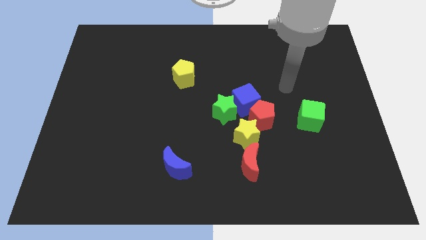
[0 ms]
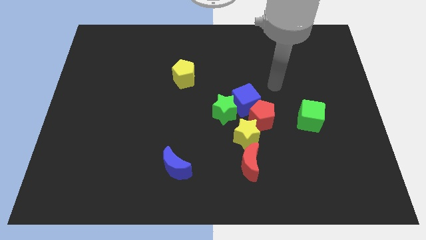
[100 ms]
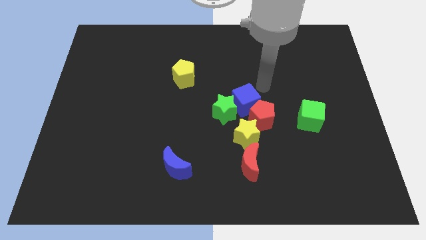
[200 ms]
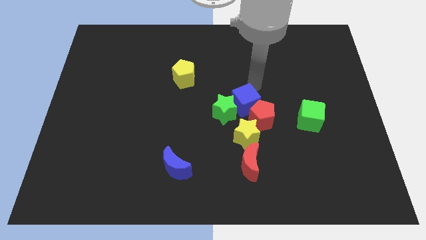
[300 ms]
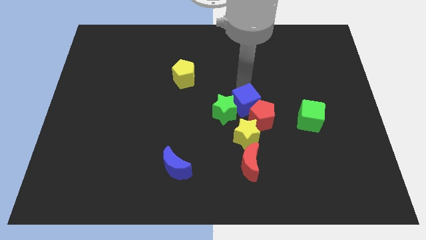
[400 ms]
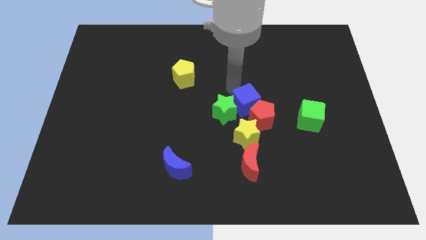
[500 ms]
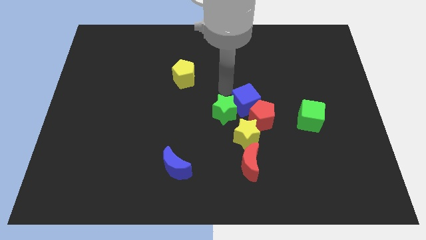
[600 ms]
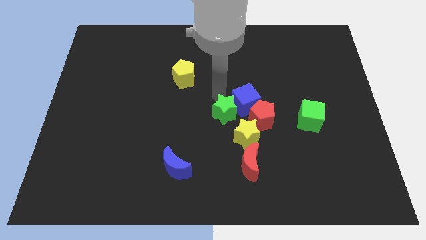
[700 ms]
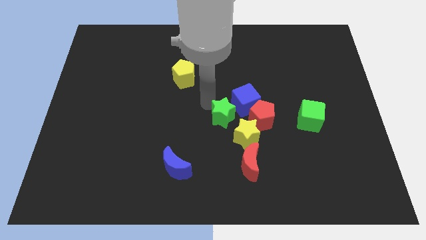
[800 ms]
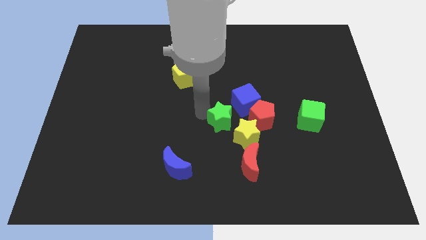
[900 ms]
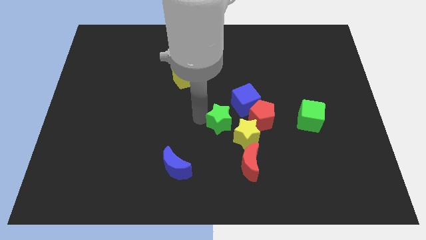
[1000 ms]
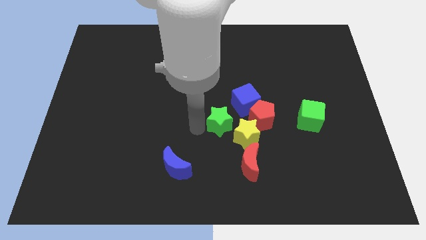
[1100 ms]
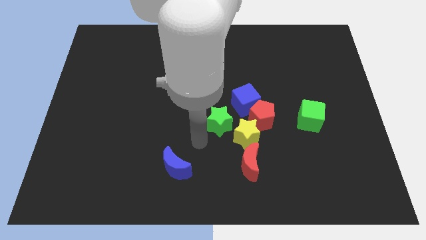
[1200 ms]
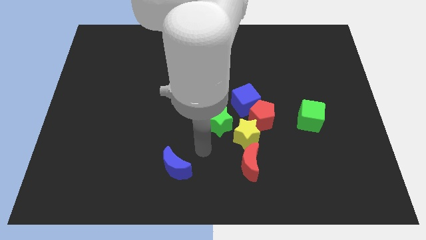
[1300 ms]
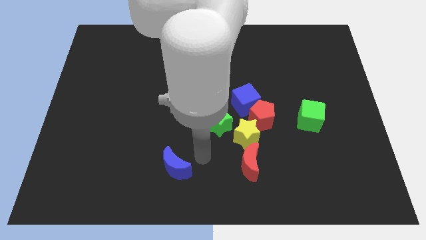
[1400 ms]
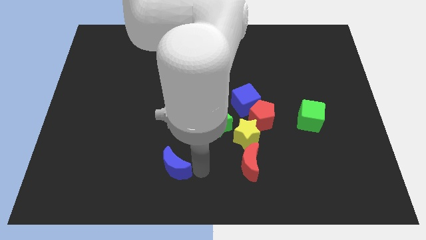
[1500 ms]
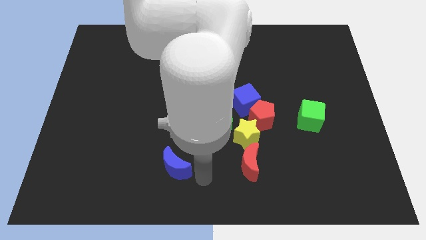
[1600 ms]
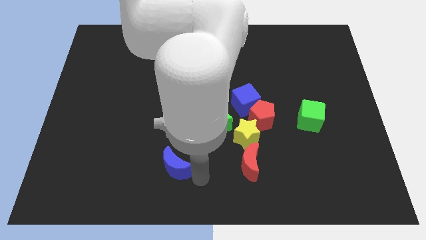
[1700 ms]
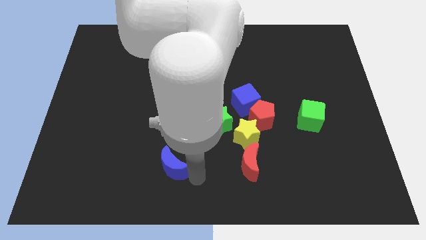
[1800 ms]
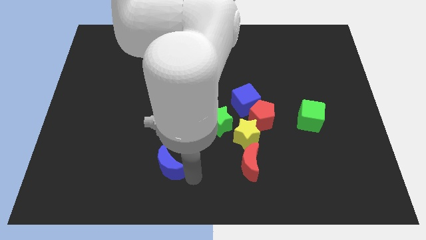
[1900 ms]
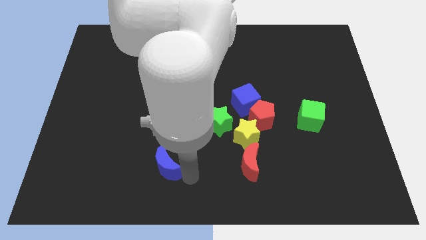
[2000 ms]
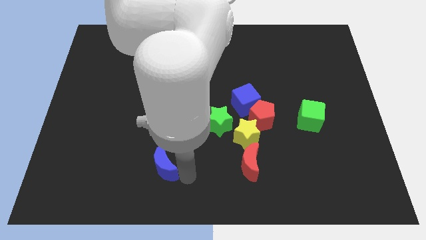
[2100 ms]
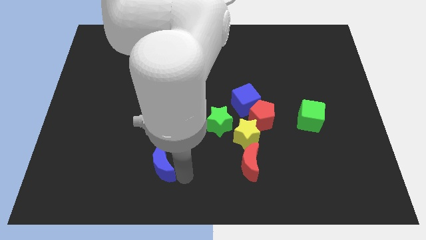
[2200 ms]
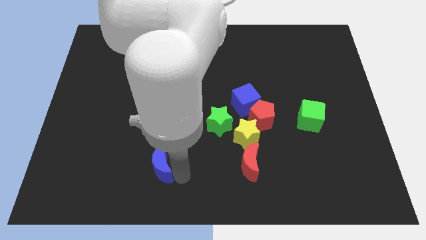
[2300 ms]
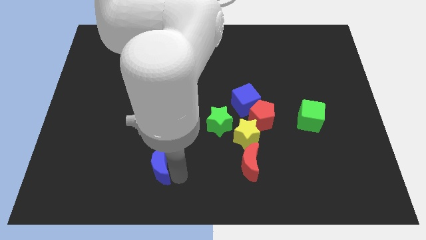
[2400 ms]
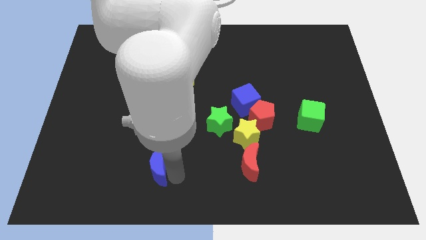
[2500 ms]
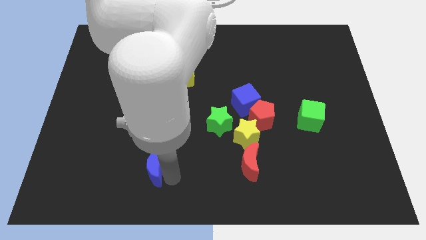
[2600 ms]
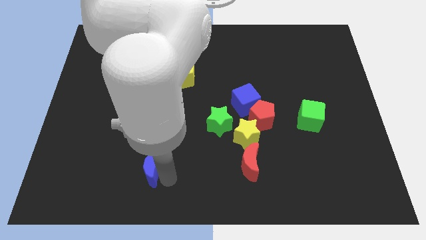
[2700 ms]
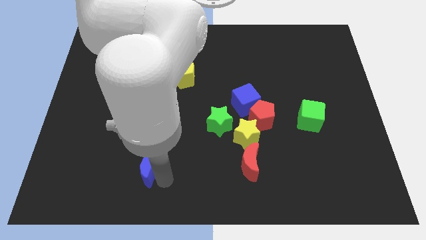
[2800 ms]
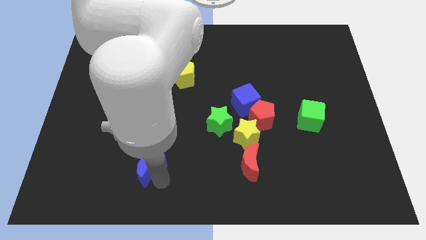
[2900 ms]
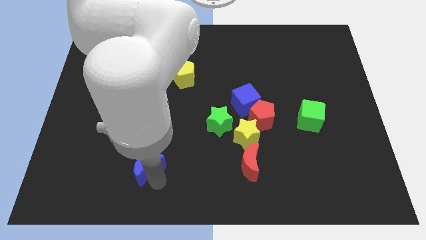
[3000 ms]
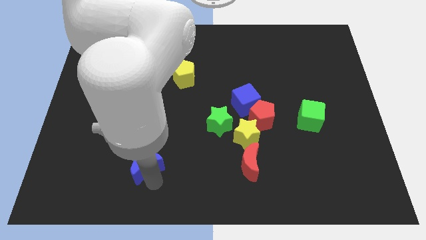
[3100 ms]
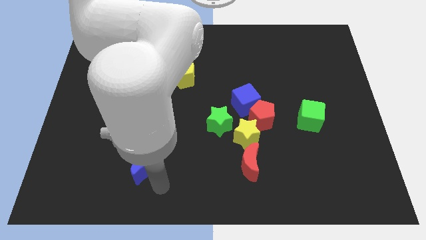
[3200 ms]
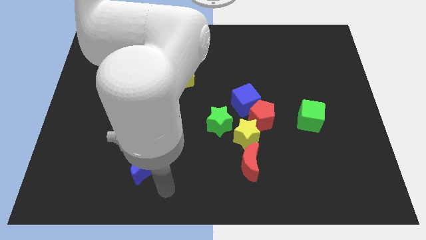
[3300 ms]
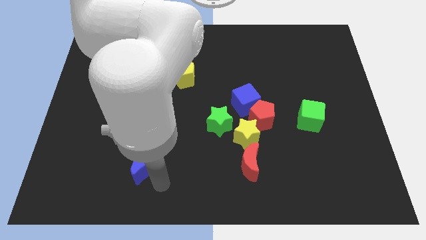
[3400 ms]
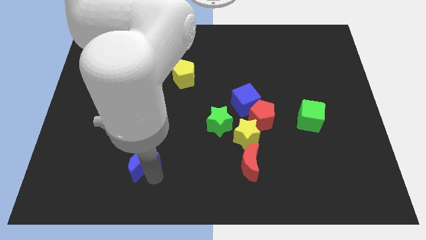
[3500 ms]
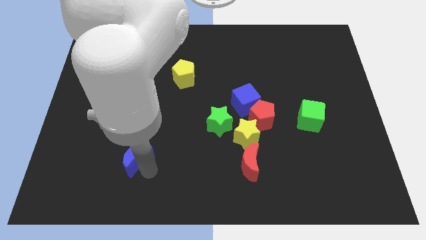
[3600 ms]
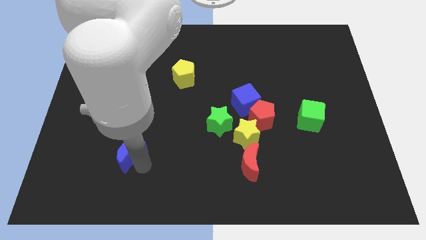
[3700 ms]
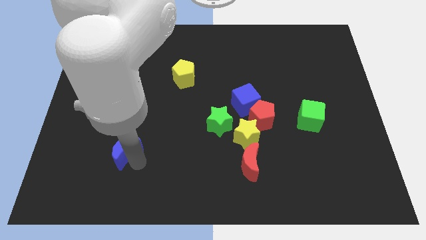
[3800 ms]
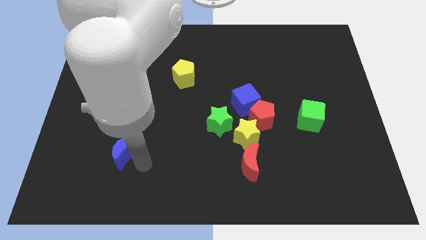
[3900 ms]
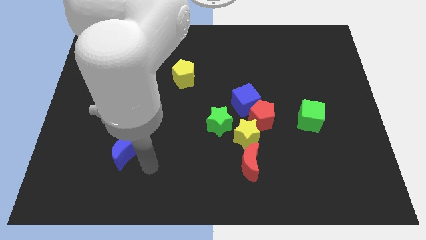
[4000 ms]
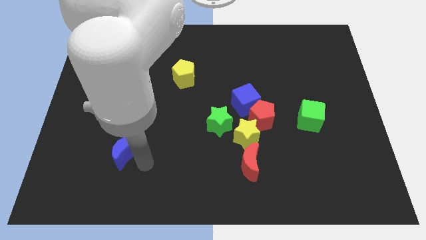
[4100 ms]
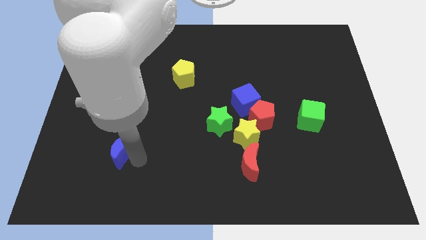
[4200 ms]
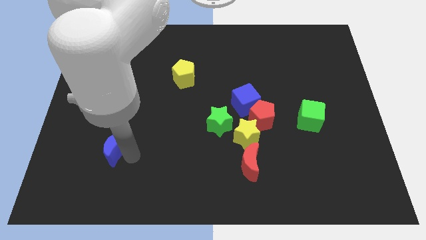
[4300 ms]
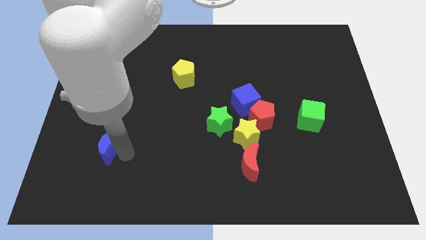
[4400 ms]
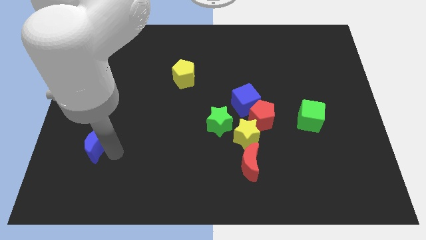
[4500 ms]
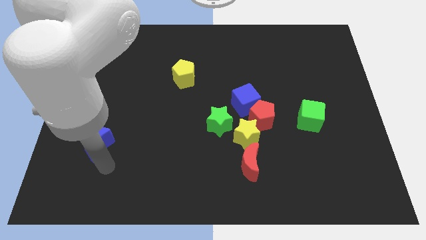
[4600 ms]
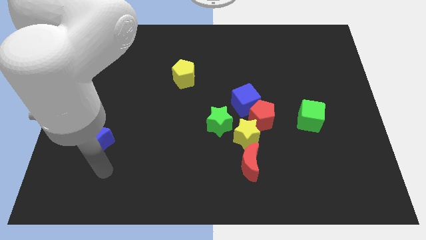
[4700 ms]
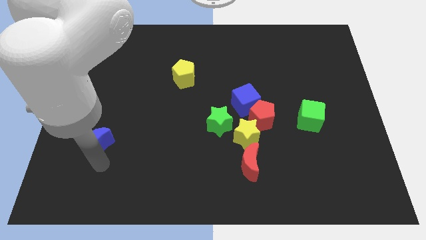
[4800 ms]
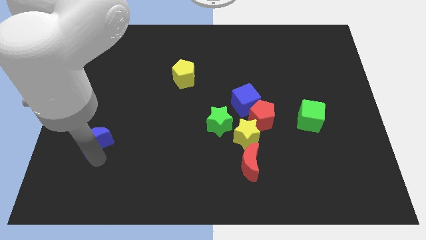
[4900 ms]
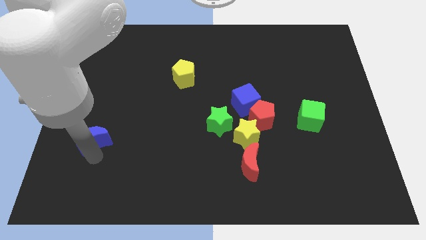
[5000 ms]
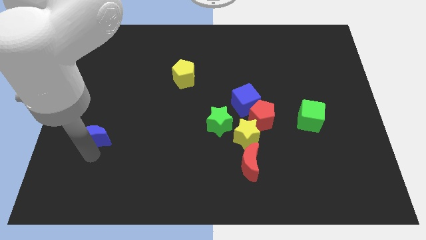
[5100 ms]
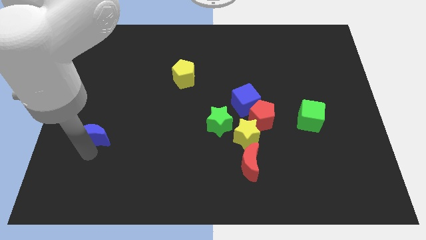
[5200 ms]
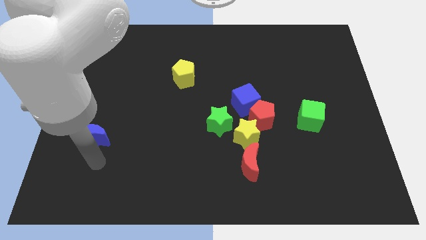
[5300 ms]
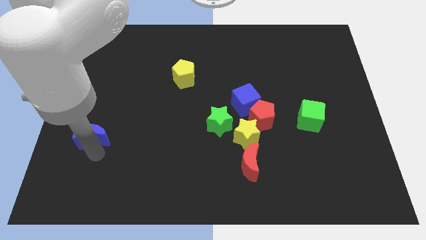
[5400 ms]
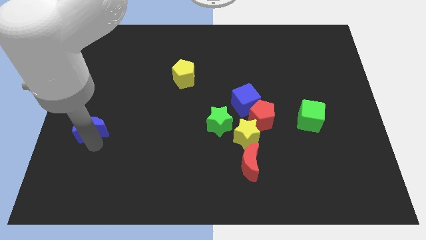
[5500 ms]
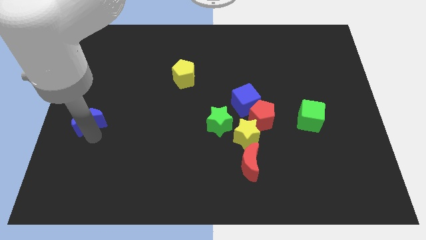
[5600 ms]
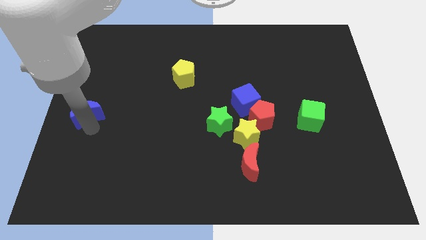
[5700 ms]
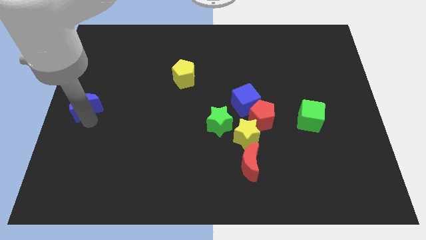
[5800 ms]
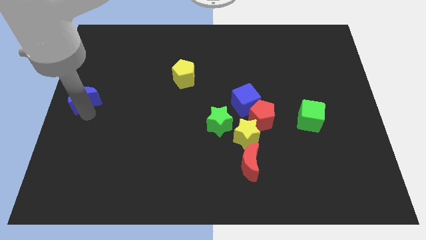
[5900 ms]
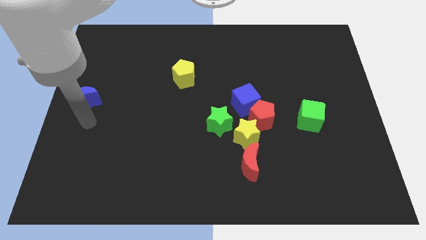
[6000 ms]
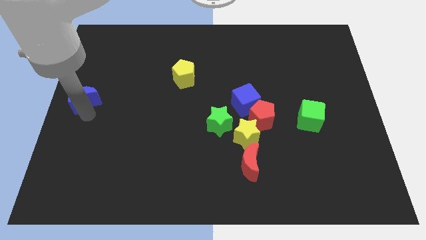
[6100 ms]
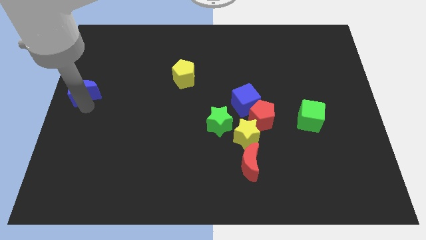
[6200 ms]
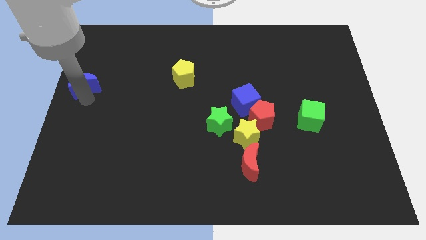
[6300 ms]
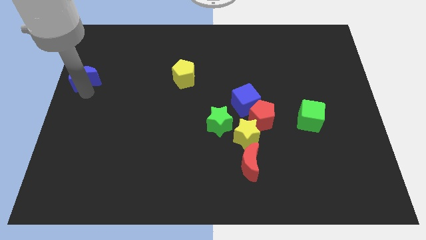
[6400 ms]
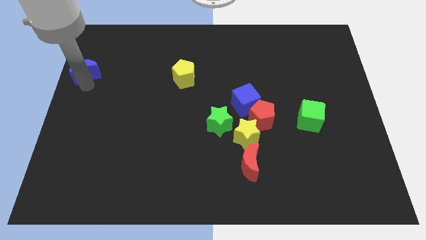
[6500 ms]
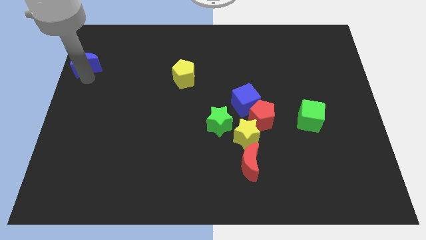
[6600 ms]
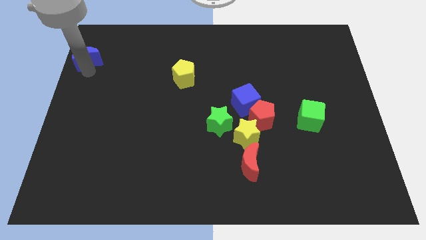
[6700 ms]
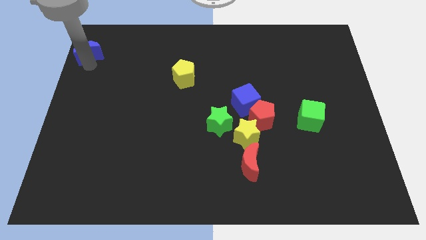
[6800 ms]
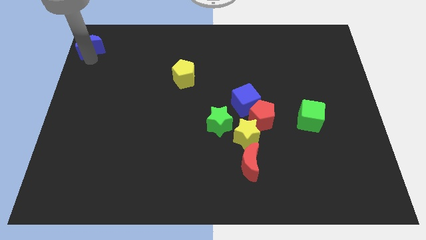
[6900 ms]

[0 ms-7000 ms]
slide the blue moon to the upper left corner

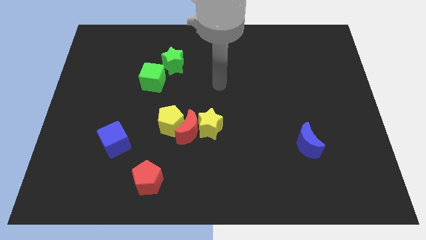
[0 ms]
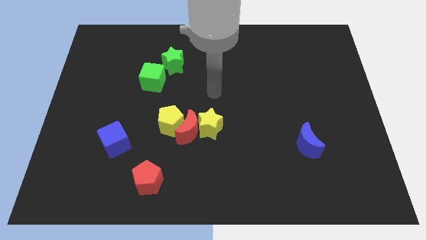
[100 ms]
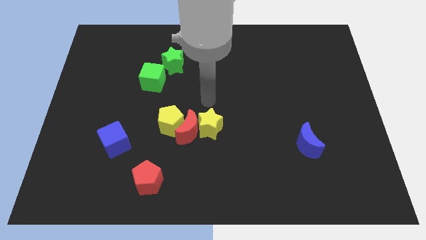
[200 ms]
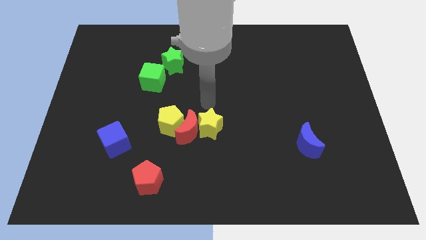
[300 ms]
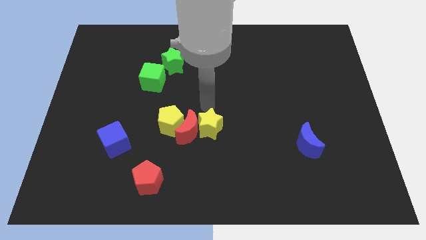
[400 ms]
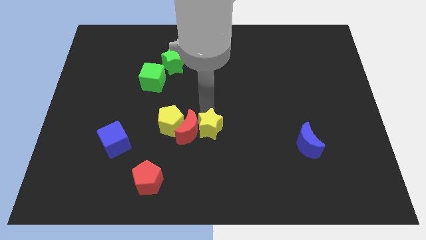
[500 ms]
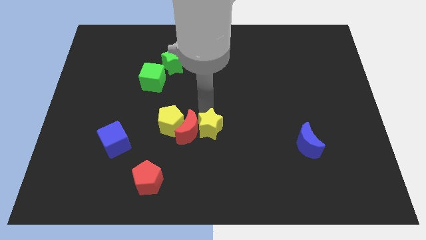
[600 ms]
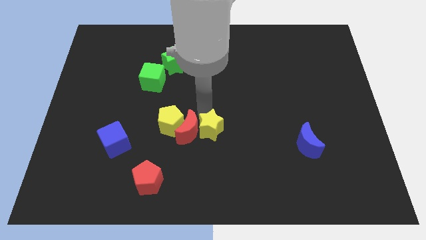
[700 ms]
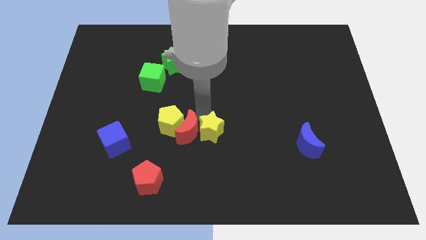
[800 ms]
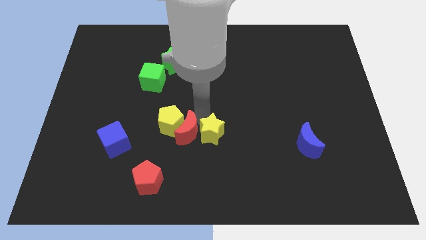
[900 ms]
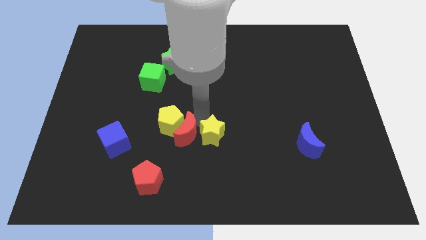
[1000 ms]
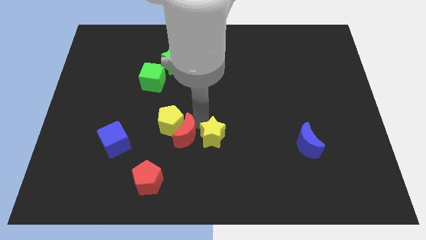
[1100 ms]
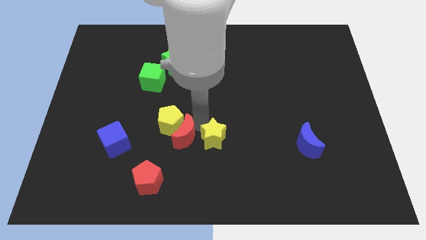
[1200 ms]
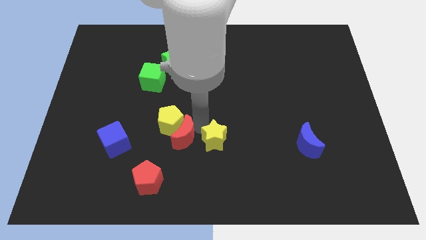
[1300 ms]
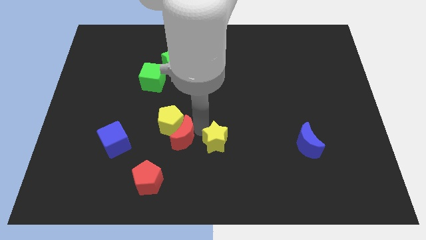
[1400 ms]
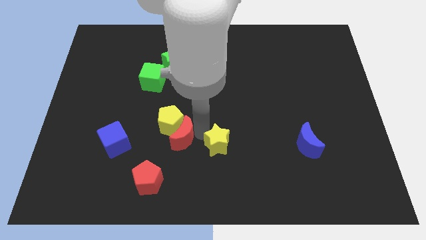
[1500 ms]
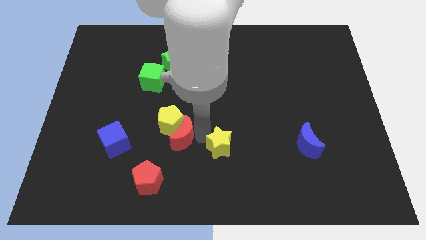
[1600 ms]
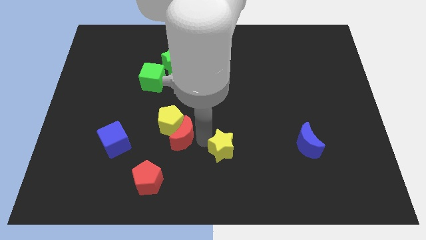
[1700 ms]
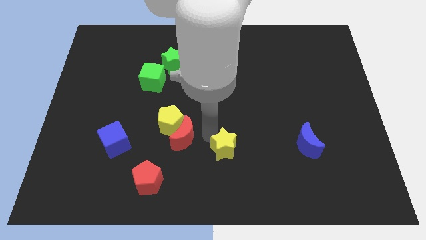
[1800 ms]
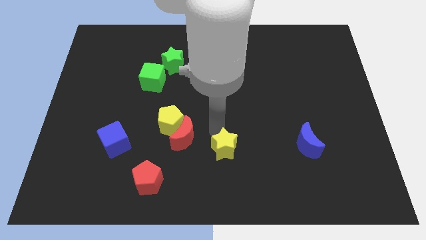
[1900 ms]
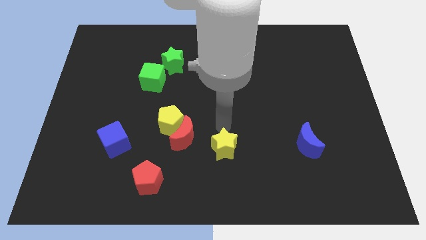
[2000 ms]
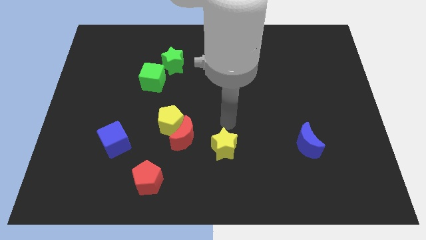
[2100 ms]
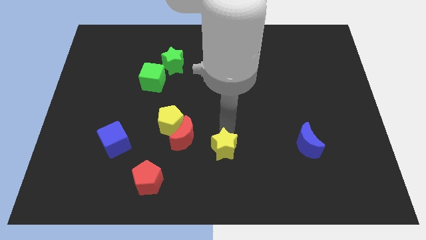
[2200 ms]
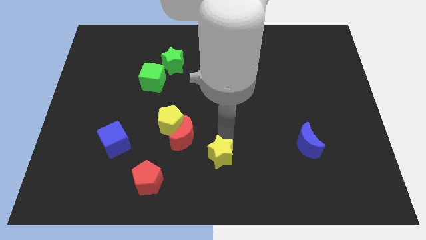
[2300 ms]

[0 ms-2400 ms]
slide the yellow star to the bottom side
